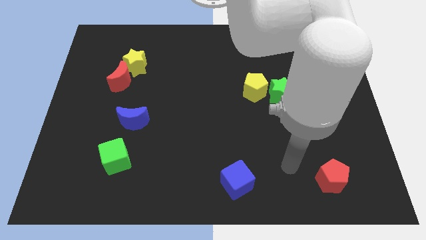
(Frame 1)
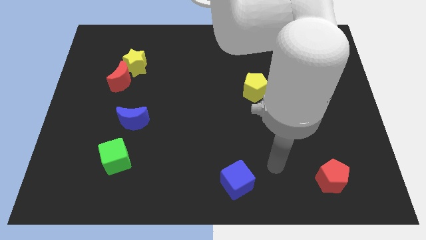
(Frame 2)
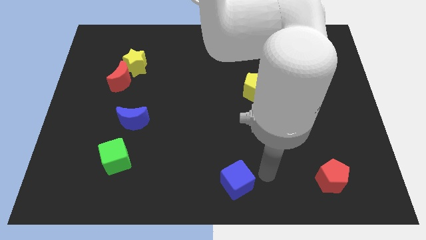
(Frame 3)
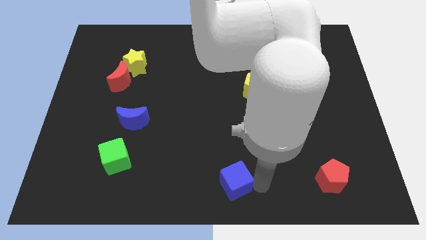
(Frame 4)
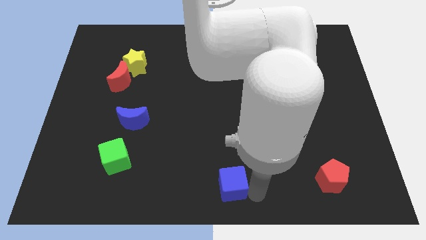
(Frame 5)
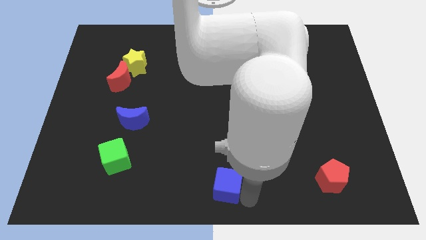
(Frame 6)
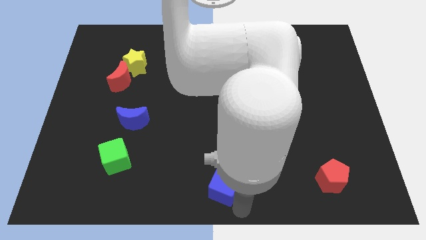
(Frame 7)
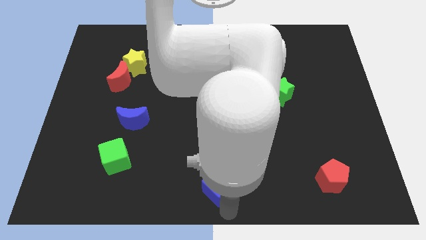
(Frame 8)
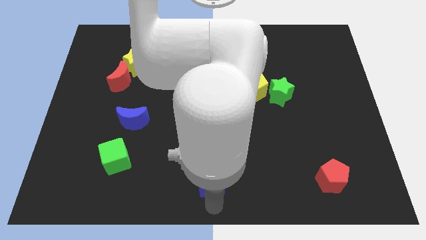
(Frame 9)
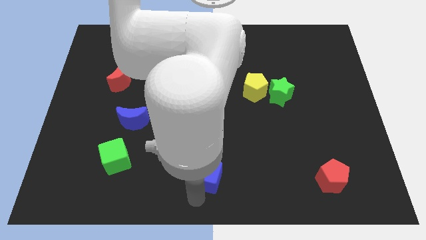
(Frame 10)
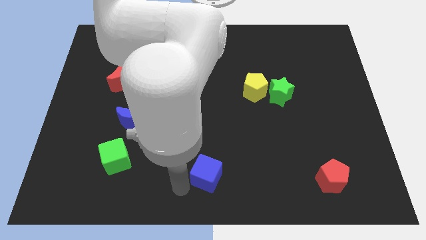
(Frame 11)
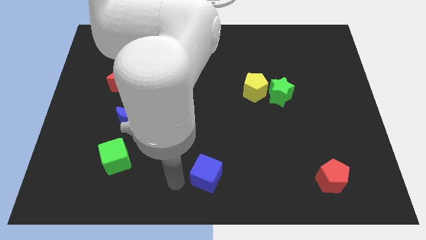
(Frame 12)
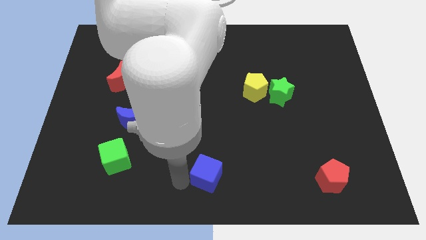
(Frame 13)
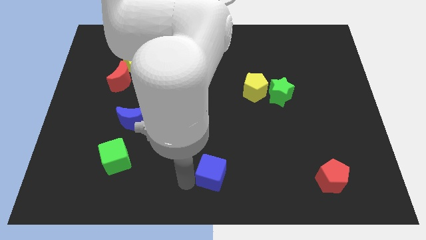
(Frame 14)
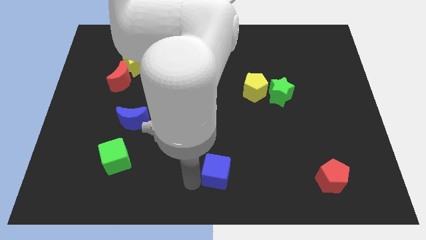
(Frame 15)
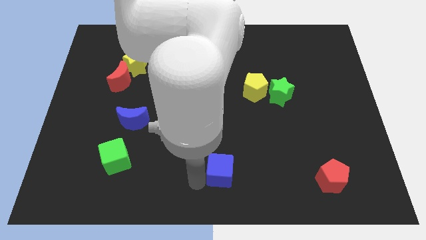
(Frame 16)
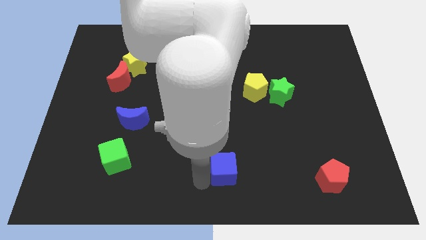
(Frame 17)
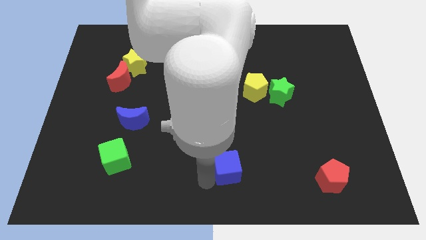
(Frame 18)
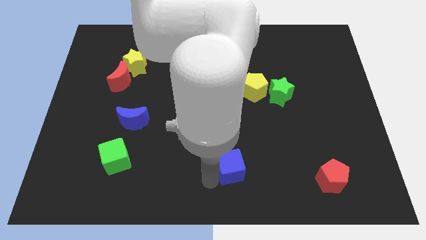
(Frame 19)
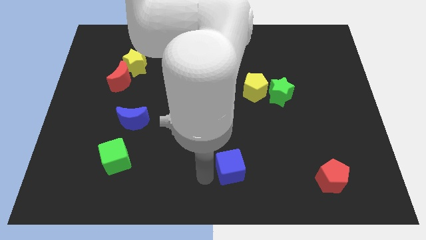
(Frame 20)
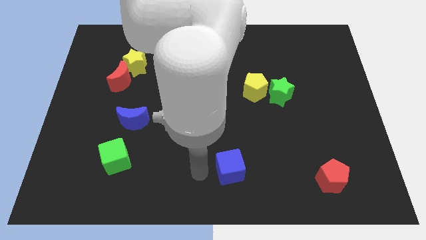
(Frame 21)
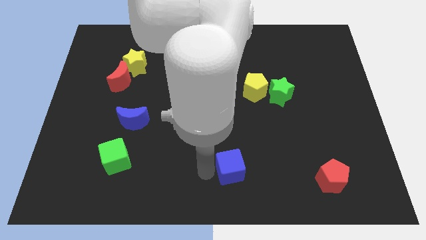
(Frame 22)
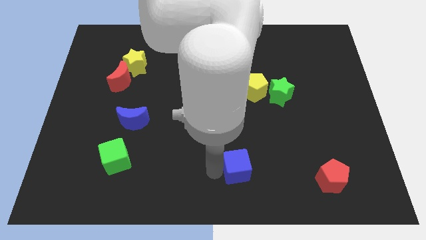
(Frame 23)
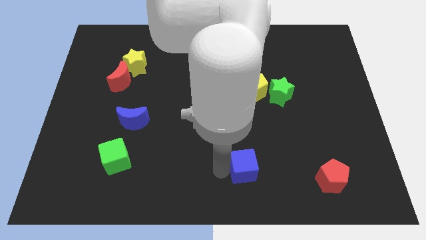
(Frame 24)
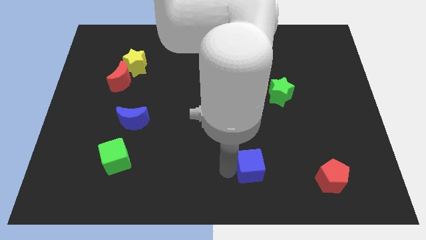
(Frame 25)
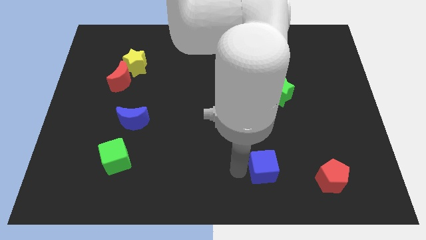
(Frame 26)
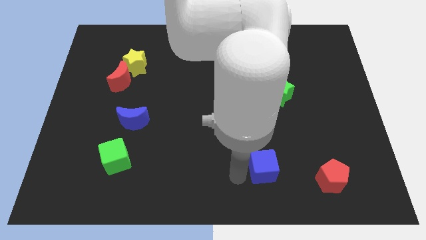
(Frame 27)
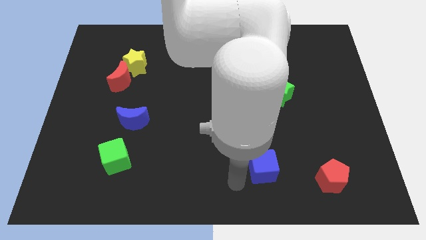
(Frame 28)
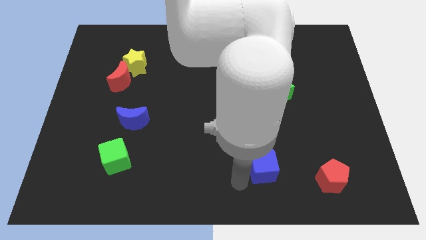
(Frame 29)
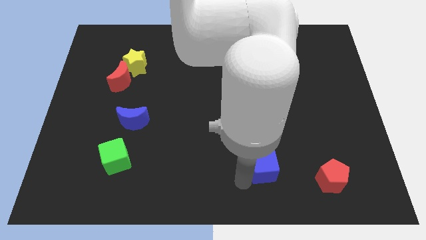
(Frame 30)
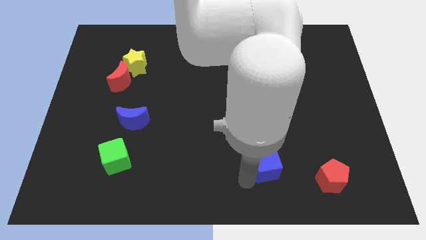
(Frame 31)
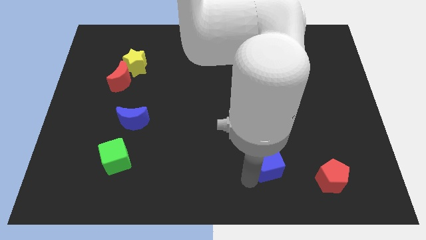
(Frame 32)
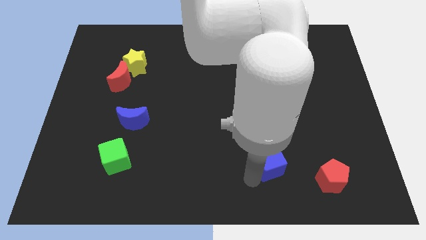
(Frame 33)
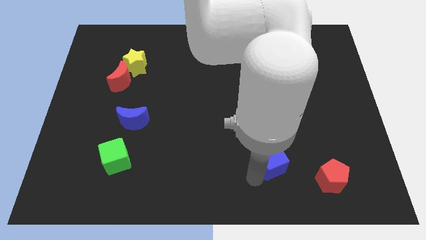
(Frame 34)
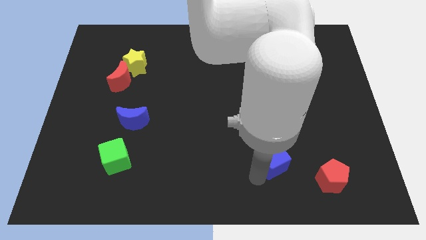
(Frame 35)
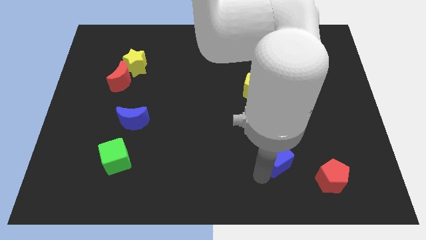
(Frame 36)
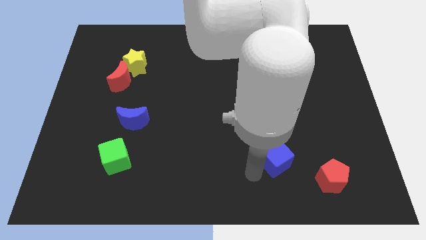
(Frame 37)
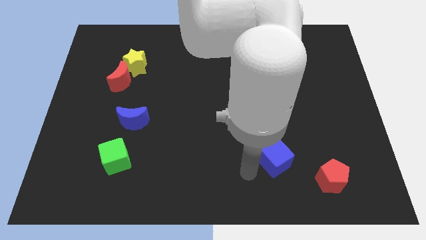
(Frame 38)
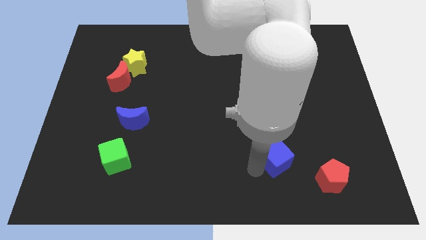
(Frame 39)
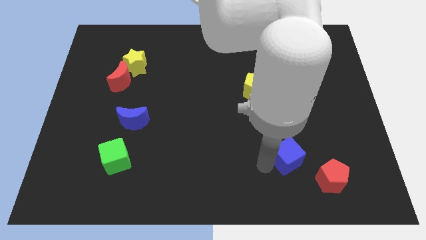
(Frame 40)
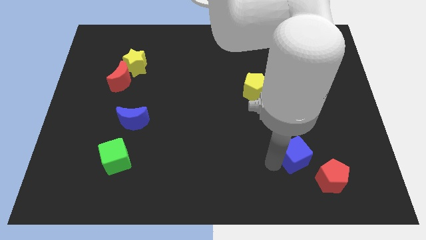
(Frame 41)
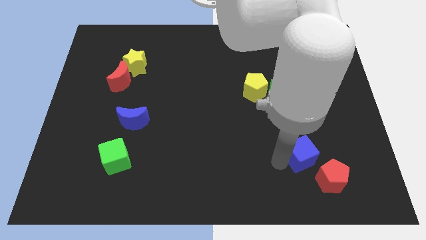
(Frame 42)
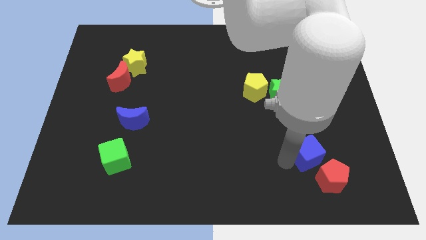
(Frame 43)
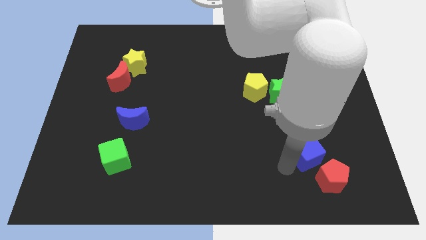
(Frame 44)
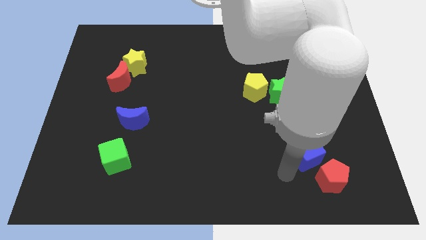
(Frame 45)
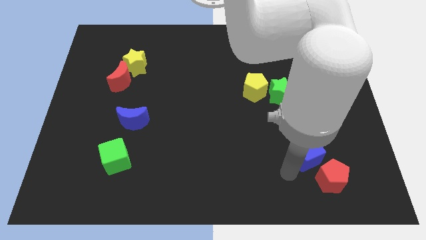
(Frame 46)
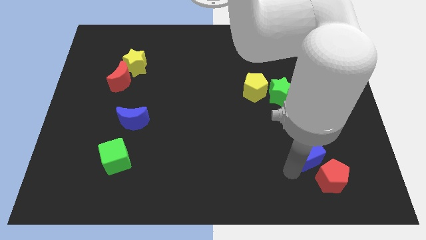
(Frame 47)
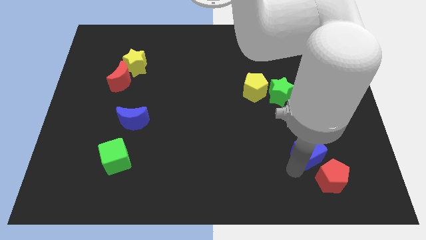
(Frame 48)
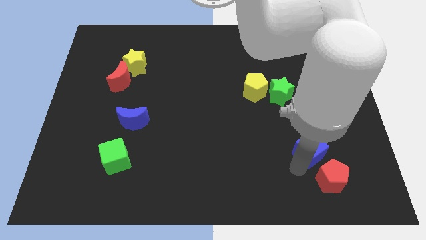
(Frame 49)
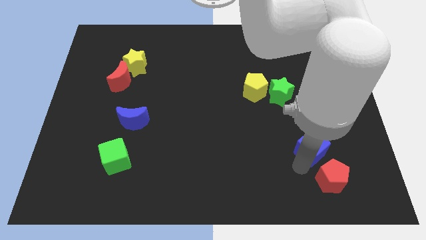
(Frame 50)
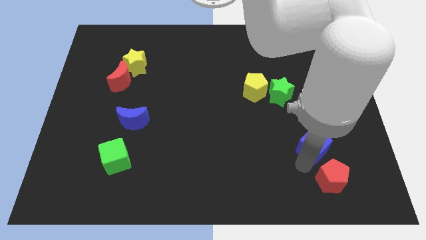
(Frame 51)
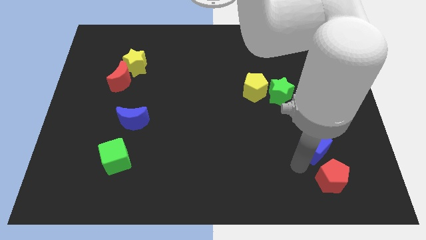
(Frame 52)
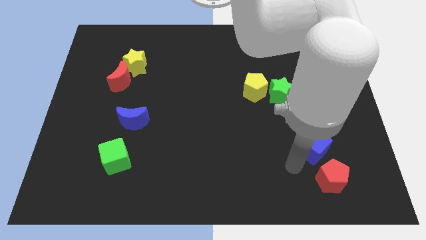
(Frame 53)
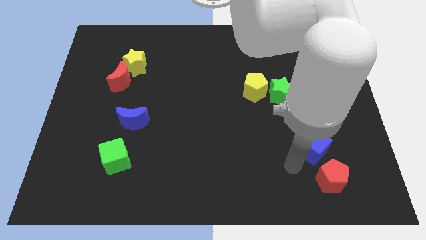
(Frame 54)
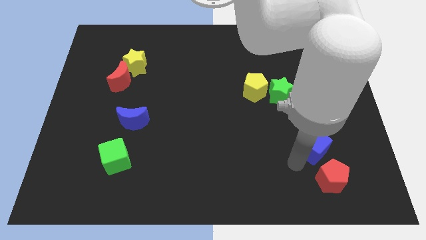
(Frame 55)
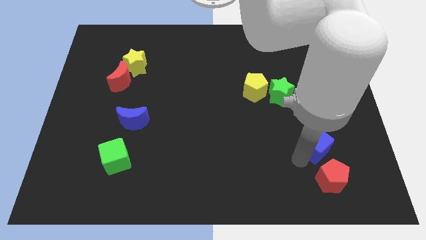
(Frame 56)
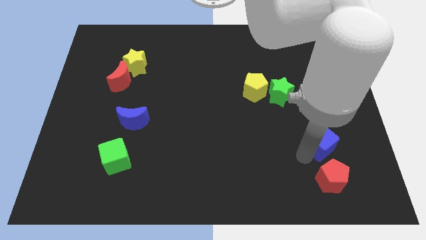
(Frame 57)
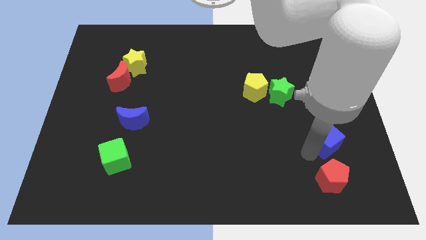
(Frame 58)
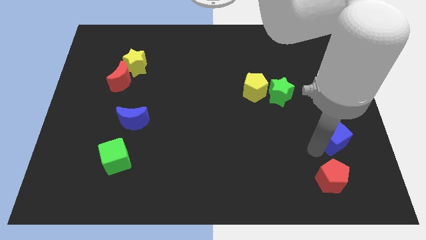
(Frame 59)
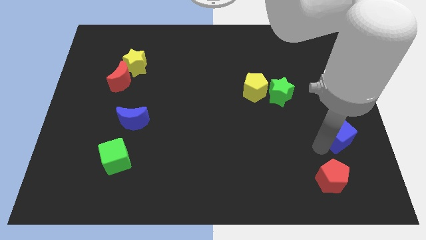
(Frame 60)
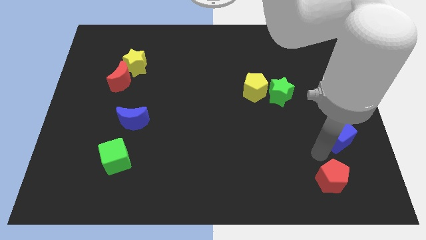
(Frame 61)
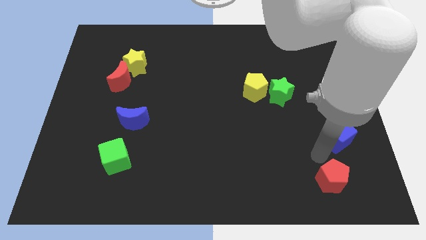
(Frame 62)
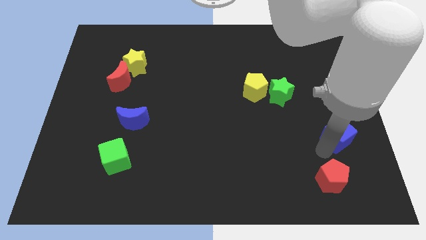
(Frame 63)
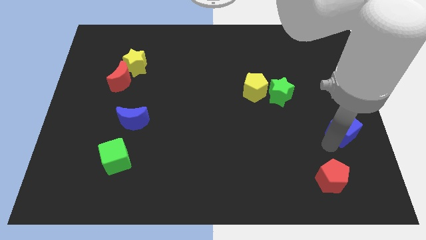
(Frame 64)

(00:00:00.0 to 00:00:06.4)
slide the blue cube to the right side of the board
